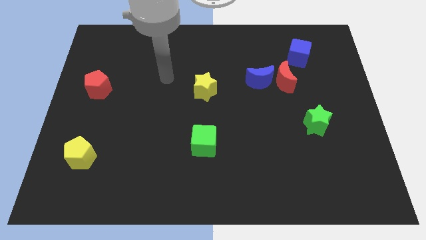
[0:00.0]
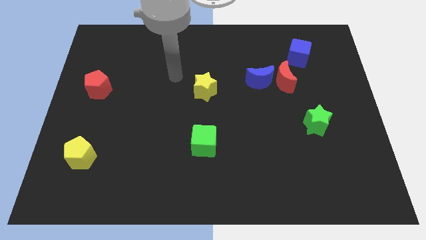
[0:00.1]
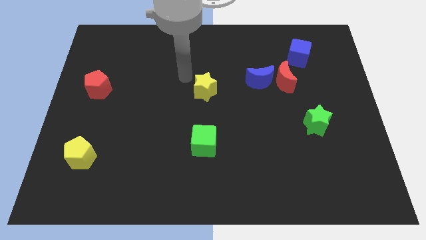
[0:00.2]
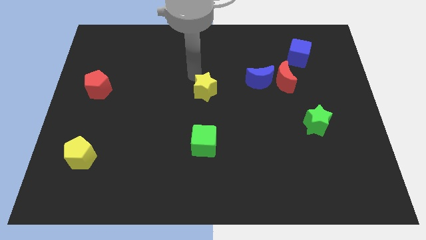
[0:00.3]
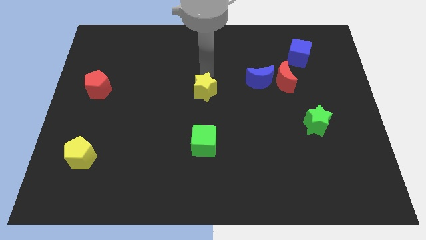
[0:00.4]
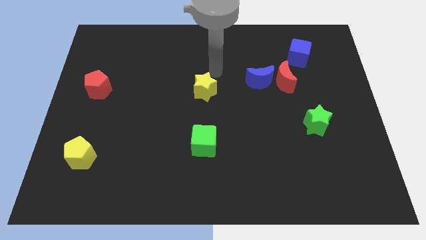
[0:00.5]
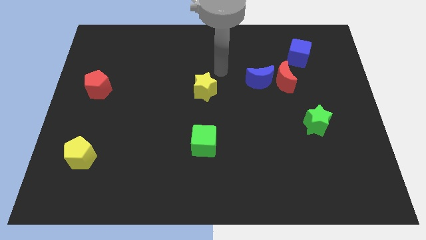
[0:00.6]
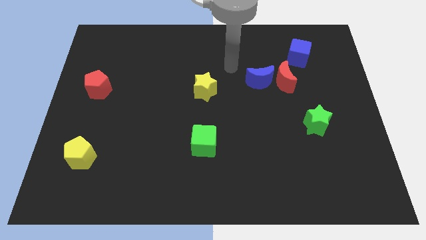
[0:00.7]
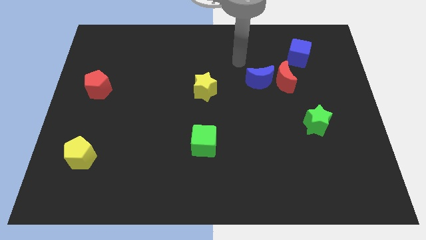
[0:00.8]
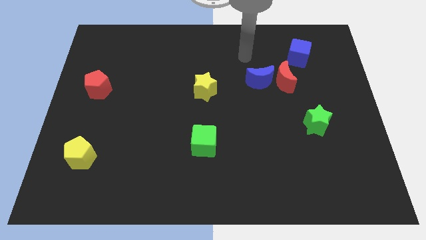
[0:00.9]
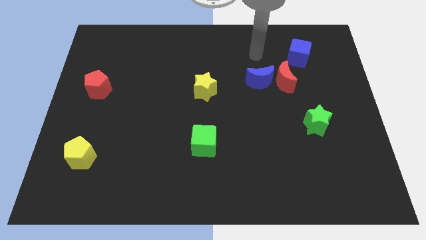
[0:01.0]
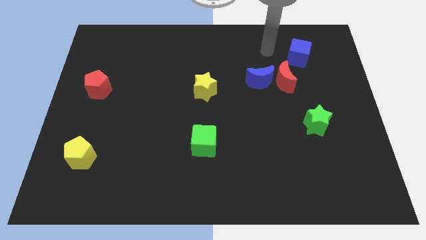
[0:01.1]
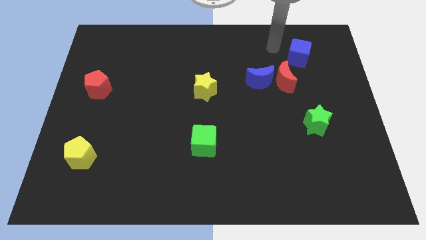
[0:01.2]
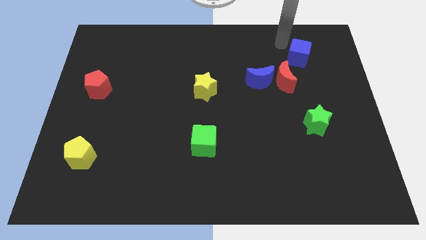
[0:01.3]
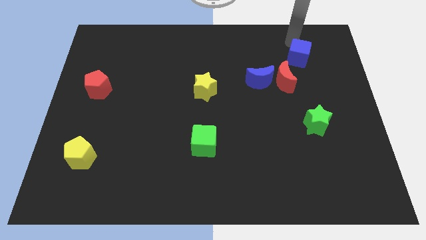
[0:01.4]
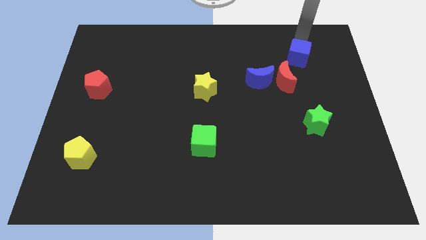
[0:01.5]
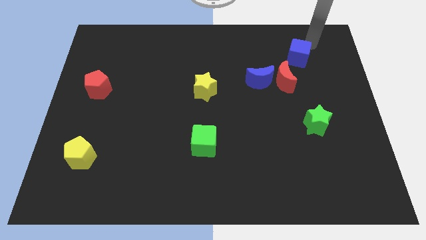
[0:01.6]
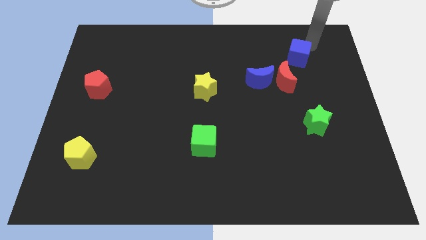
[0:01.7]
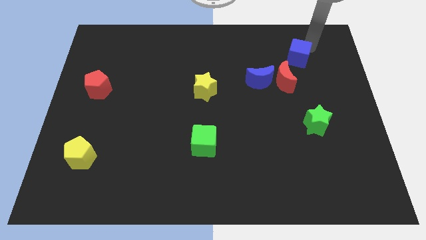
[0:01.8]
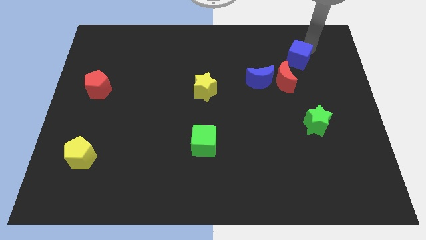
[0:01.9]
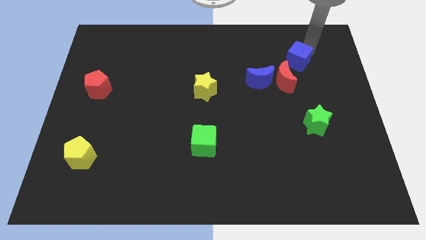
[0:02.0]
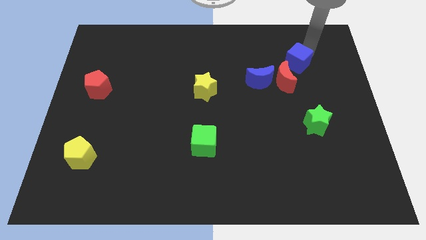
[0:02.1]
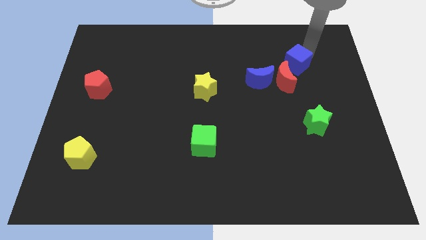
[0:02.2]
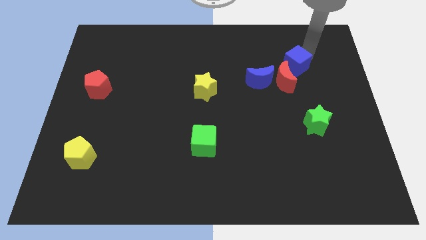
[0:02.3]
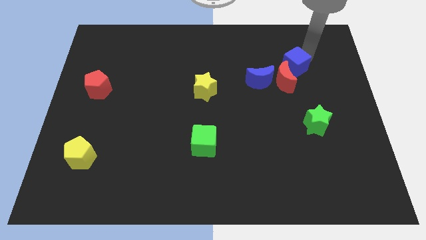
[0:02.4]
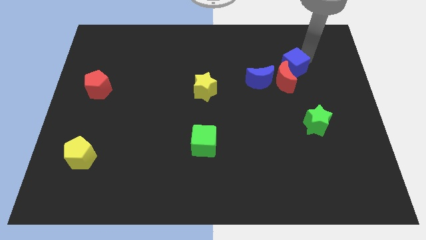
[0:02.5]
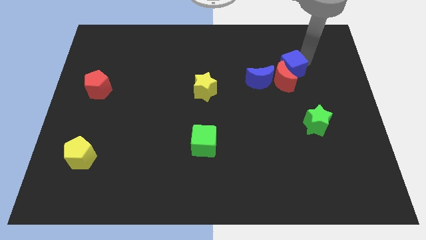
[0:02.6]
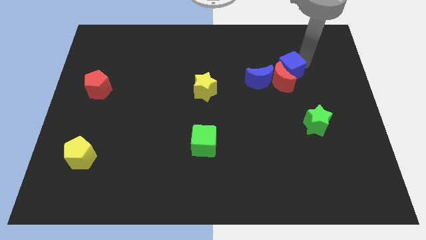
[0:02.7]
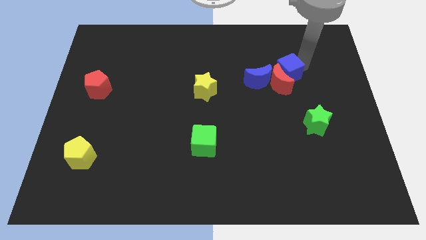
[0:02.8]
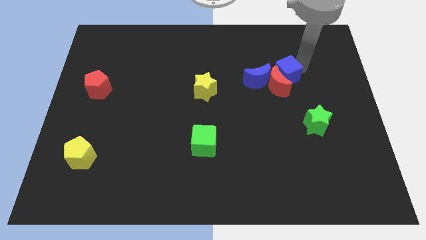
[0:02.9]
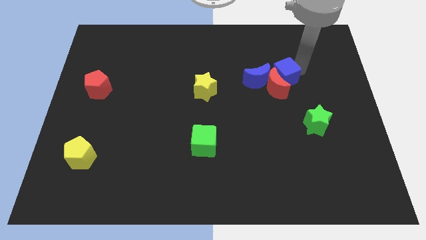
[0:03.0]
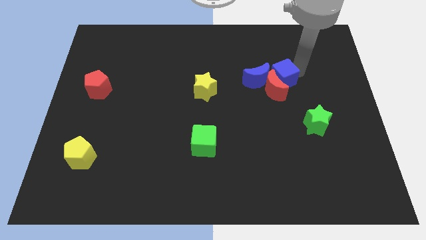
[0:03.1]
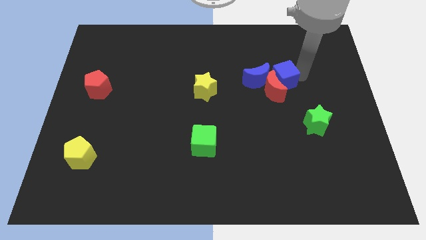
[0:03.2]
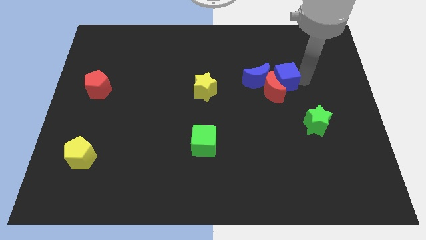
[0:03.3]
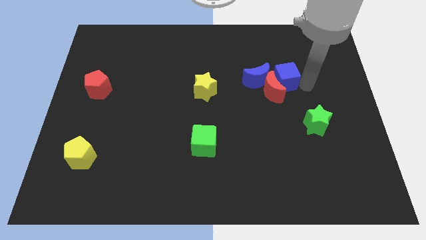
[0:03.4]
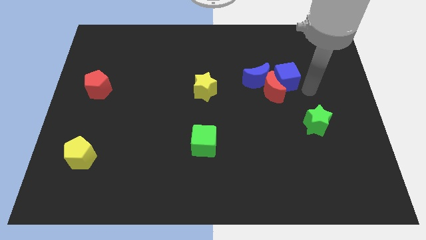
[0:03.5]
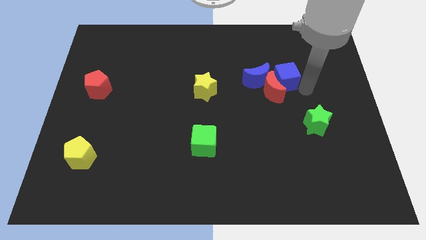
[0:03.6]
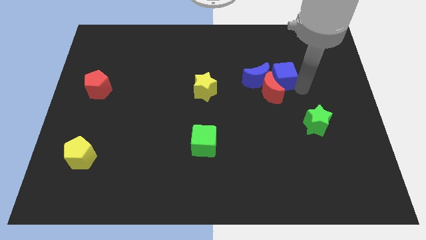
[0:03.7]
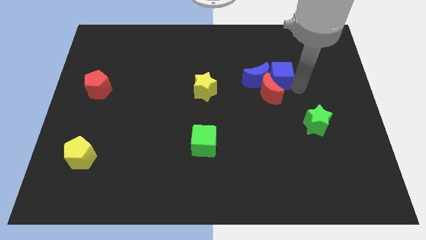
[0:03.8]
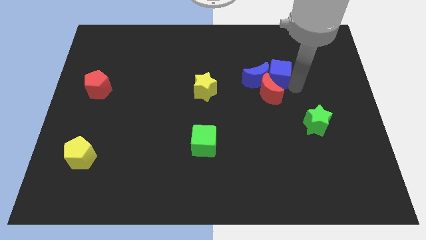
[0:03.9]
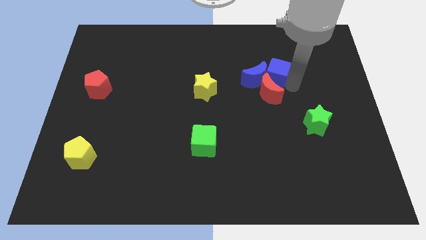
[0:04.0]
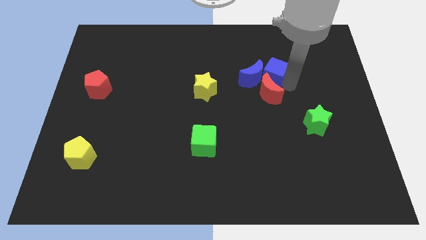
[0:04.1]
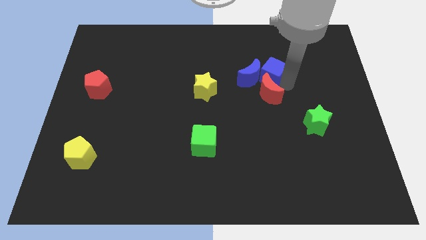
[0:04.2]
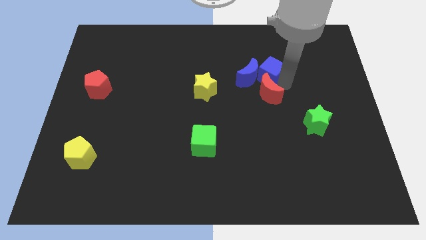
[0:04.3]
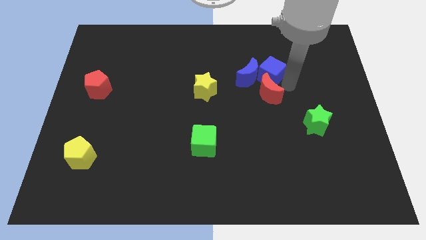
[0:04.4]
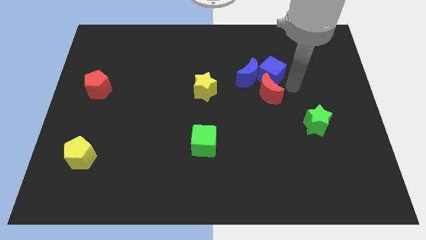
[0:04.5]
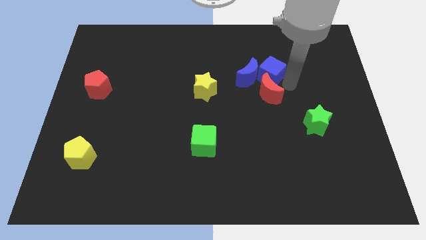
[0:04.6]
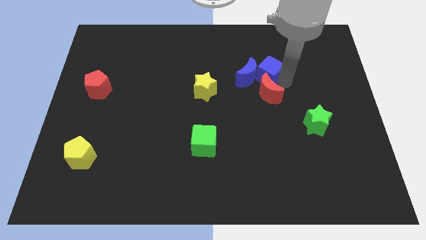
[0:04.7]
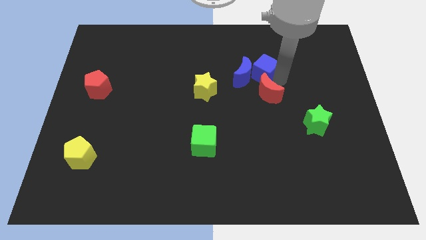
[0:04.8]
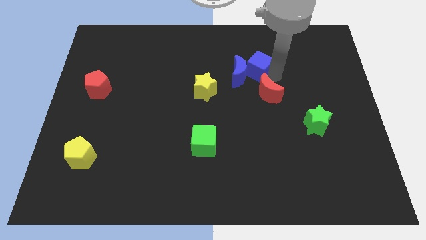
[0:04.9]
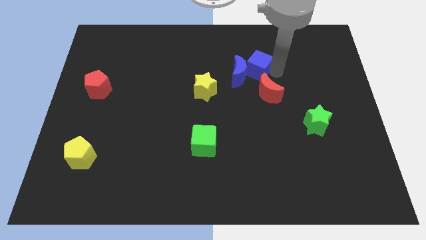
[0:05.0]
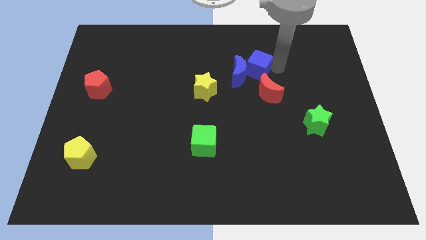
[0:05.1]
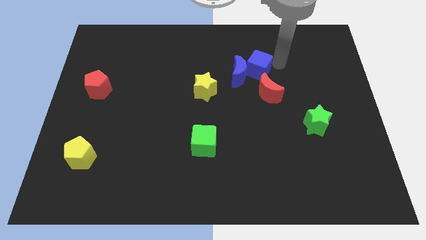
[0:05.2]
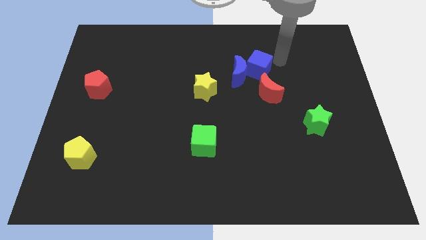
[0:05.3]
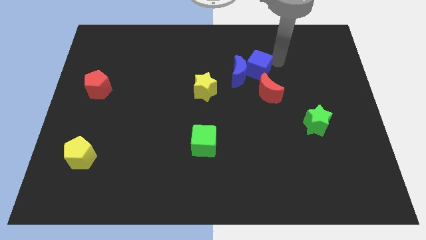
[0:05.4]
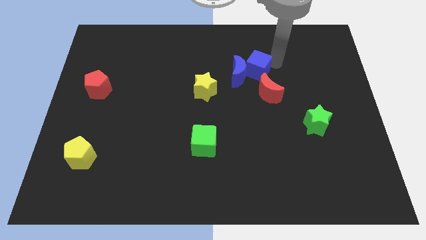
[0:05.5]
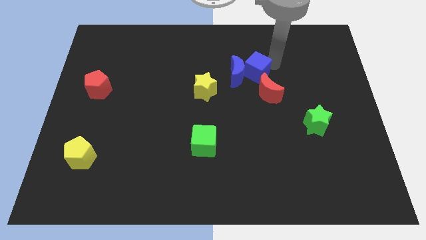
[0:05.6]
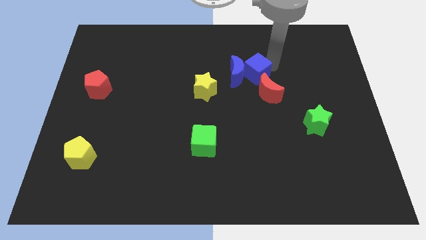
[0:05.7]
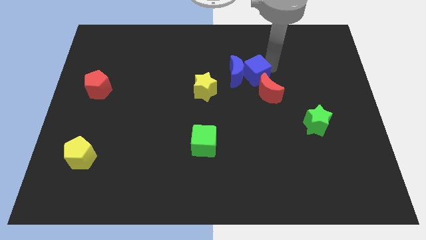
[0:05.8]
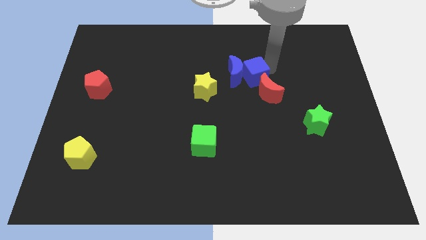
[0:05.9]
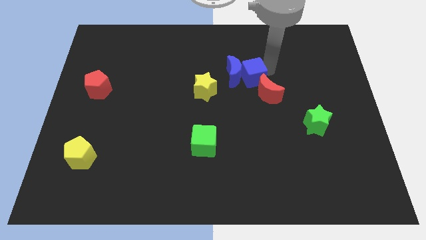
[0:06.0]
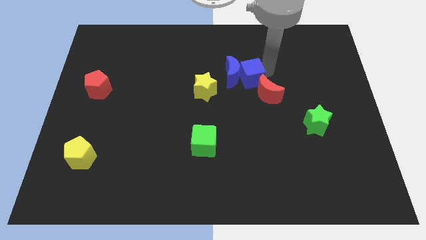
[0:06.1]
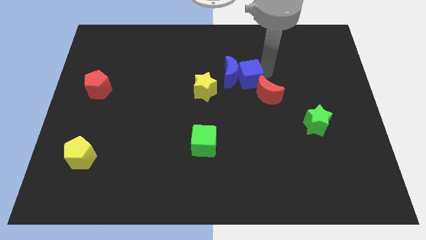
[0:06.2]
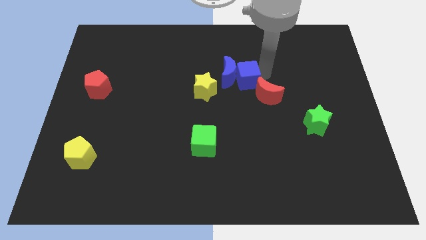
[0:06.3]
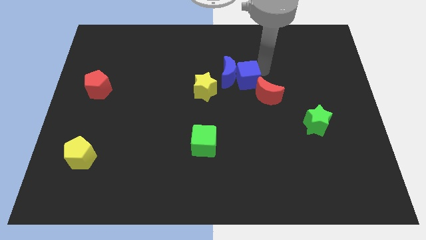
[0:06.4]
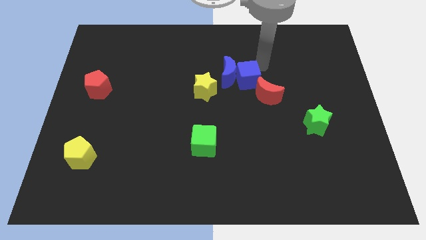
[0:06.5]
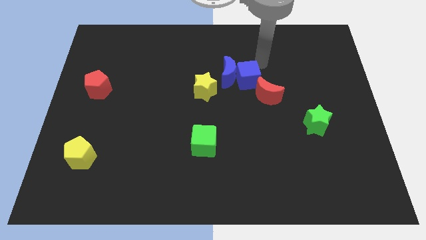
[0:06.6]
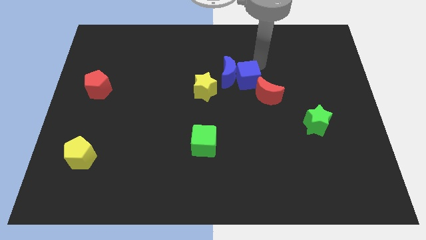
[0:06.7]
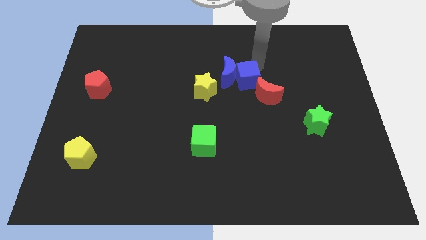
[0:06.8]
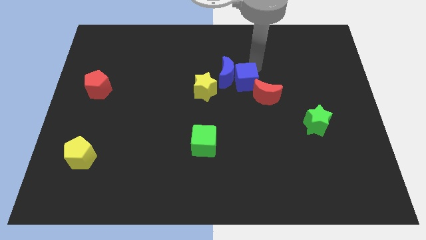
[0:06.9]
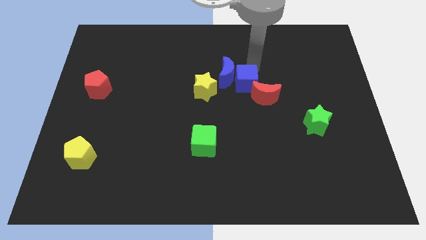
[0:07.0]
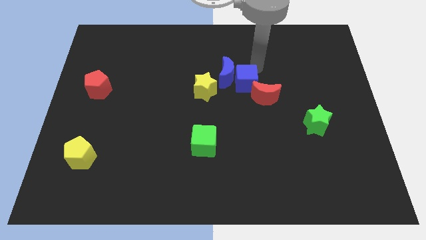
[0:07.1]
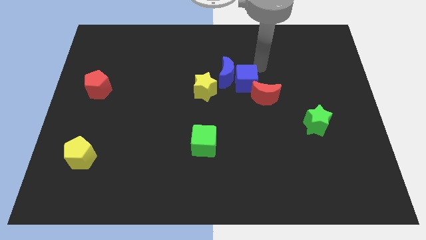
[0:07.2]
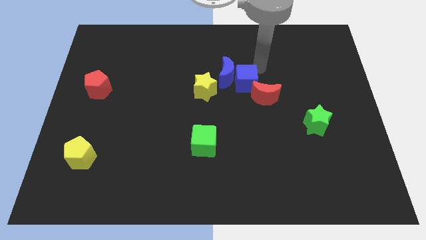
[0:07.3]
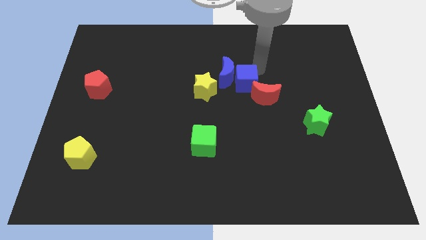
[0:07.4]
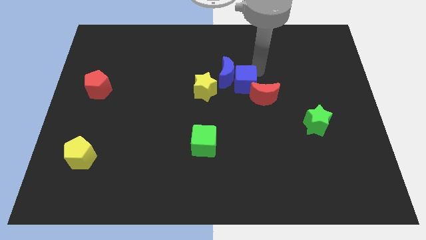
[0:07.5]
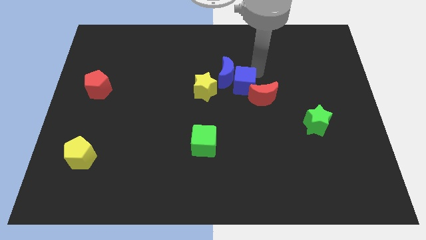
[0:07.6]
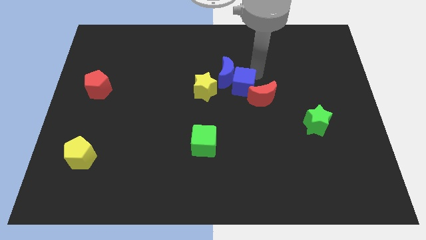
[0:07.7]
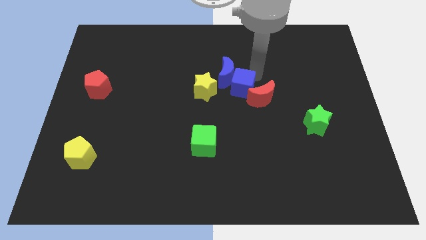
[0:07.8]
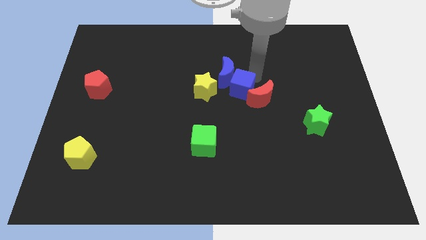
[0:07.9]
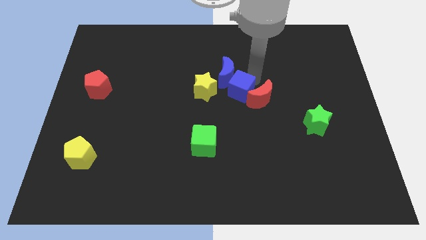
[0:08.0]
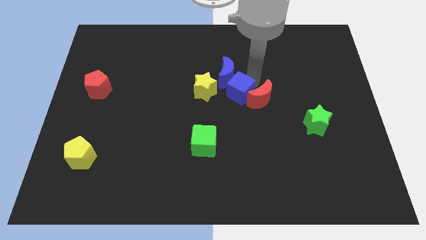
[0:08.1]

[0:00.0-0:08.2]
slide the blue cube downwards and to the left diagonally
